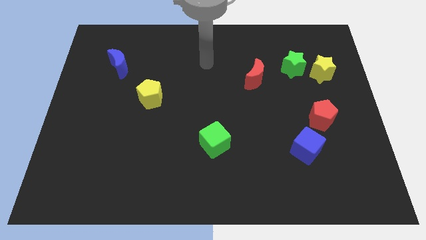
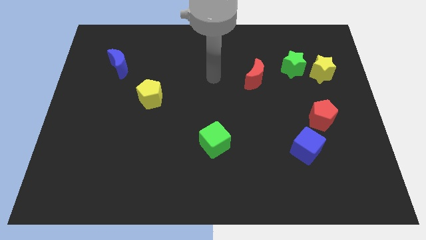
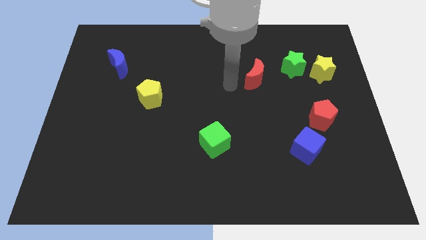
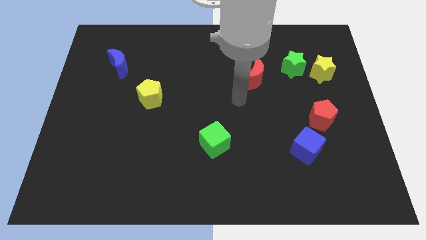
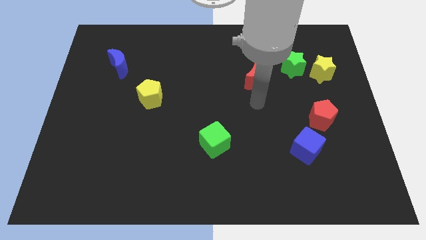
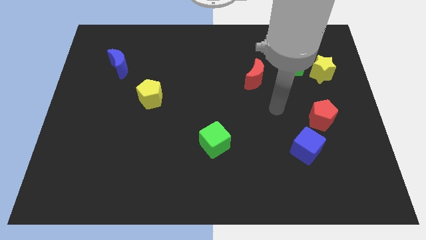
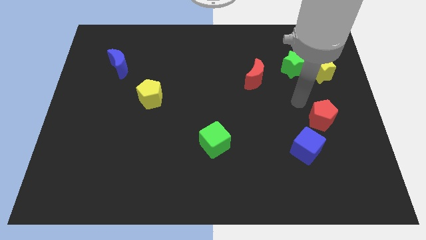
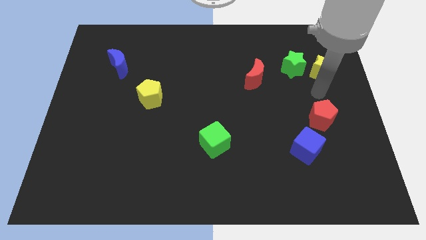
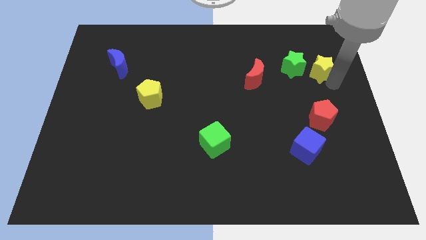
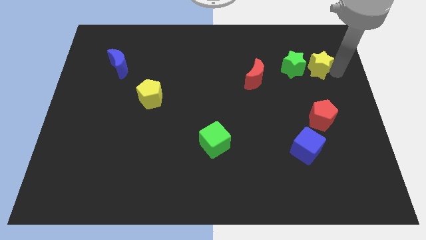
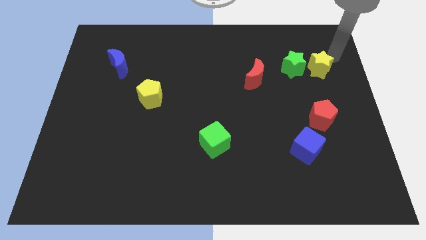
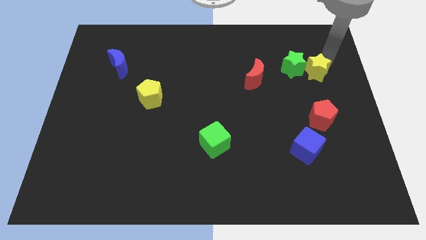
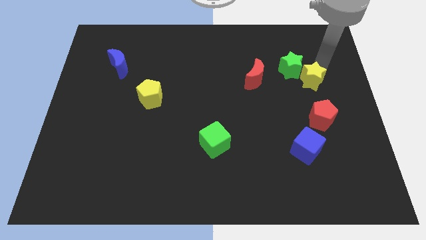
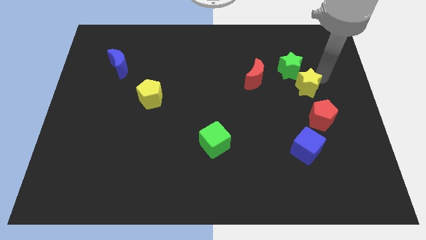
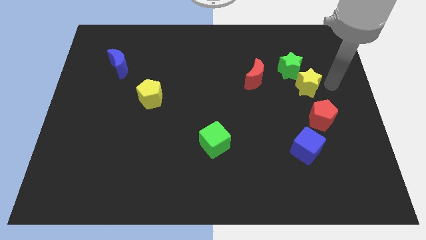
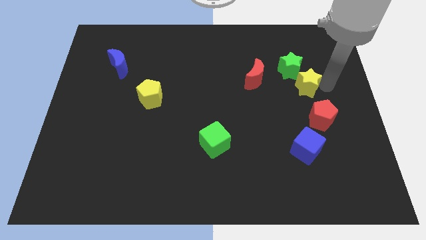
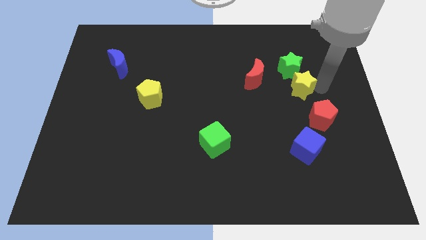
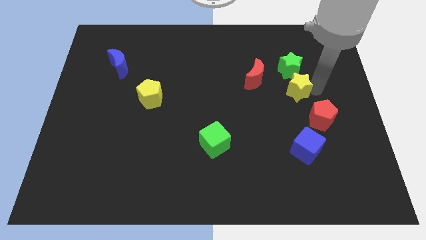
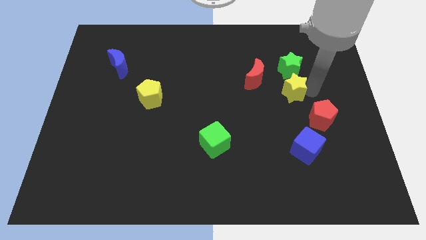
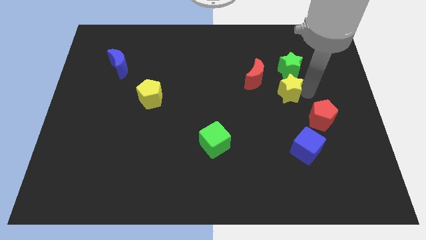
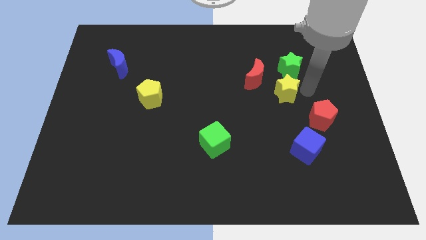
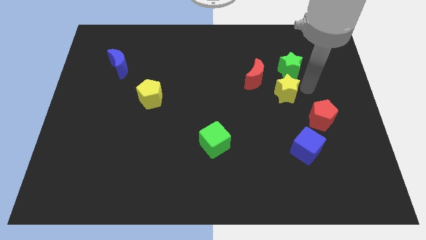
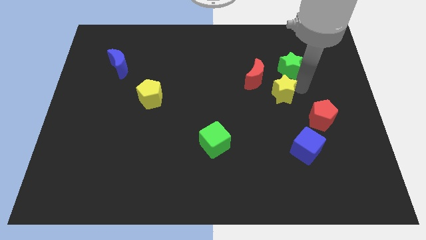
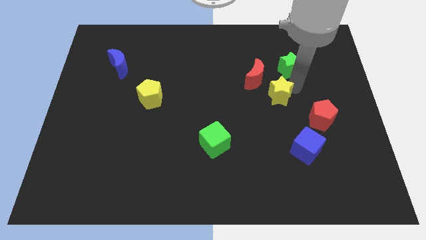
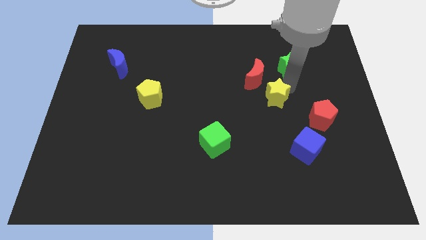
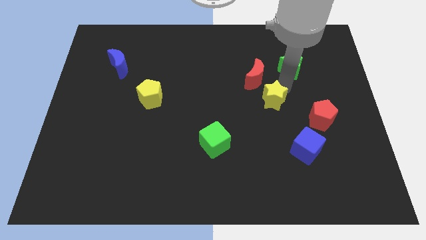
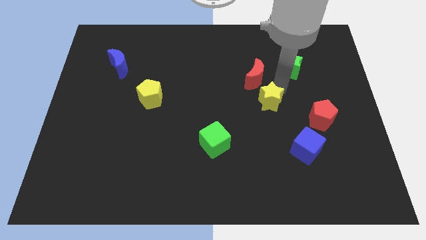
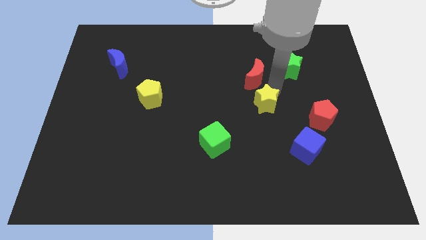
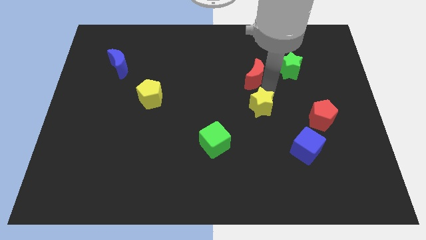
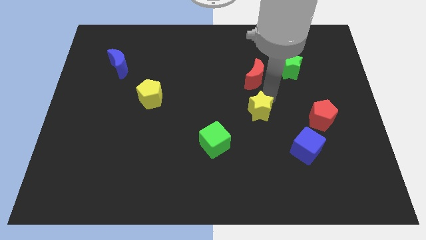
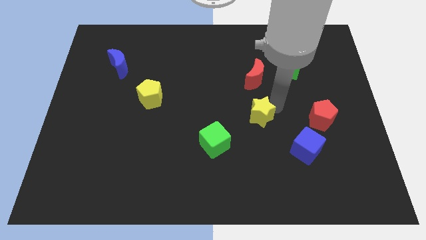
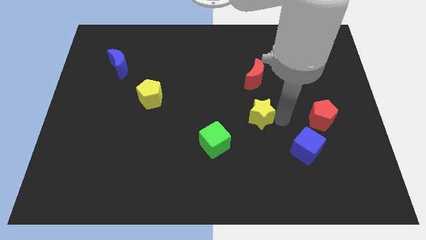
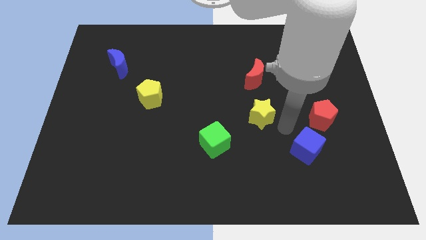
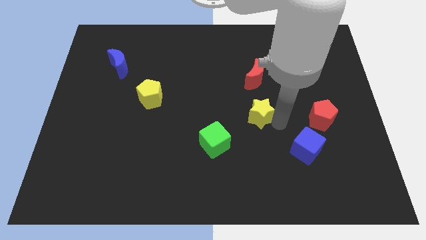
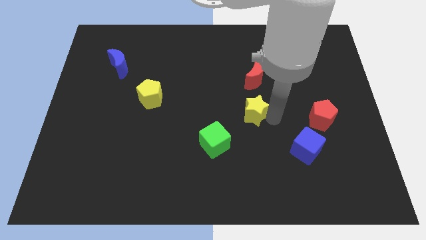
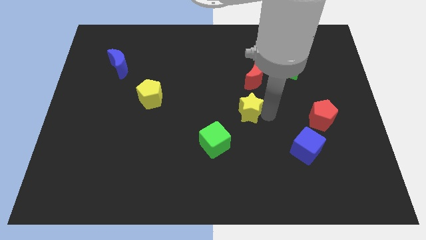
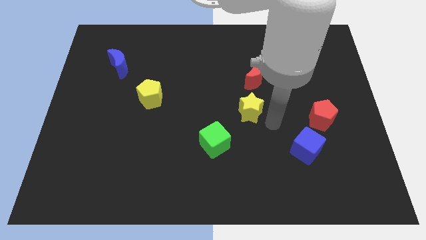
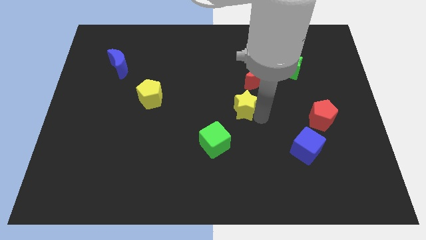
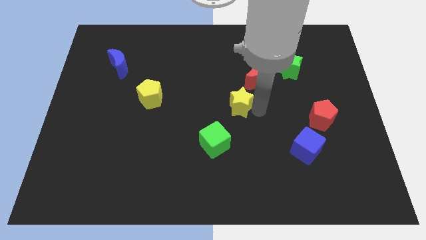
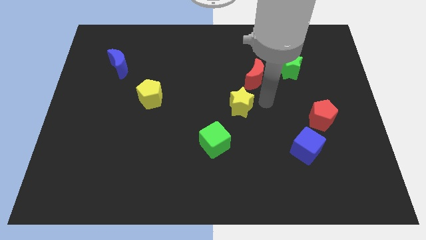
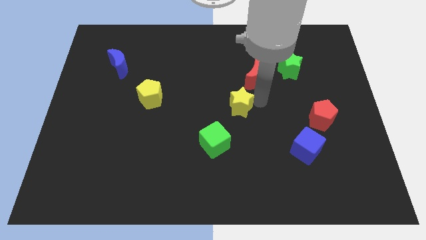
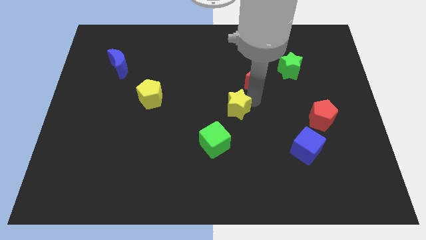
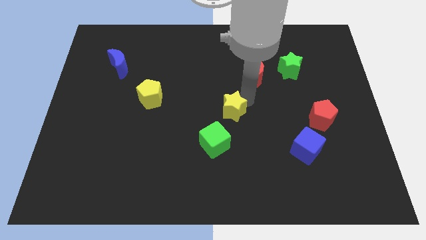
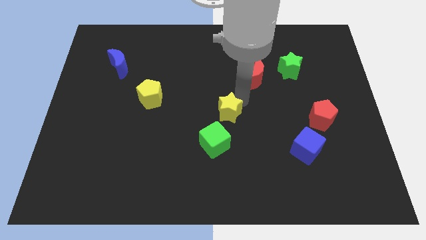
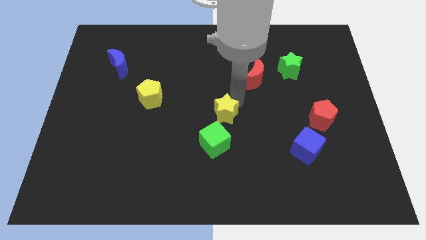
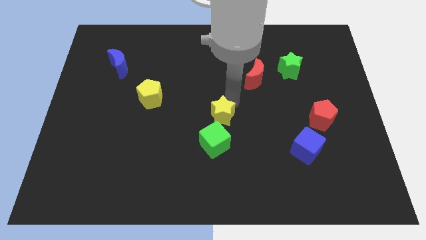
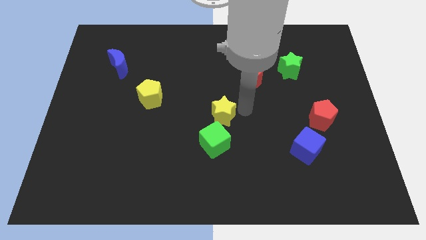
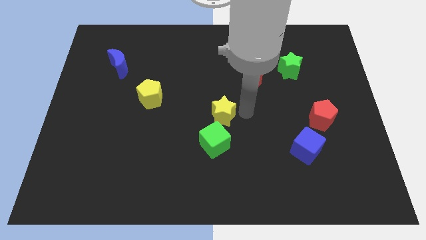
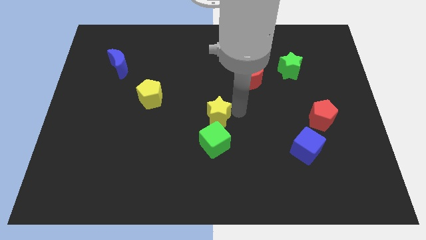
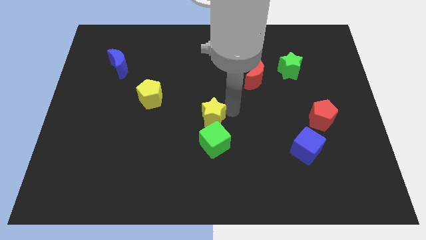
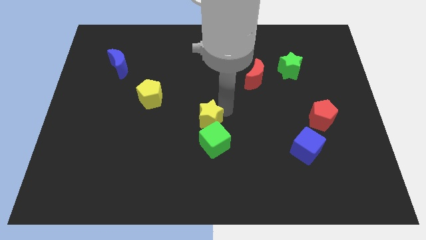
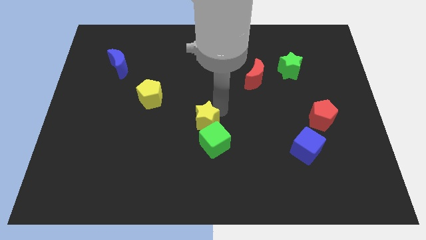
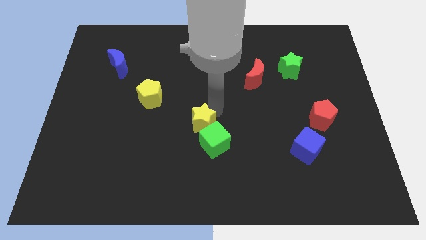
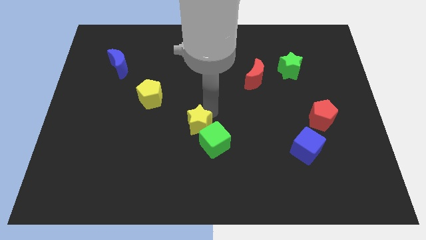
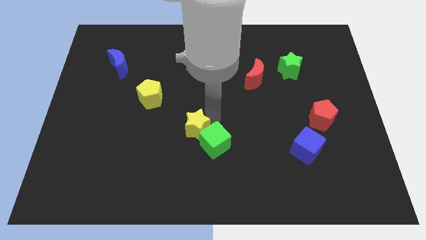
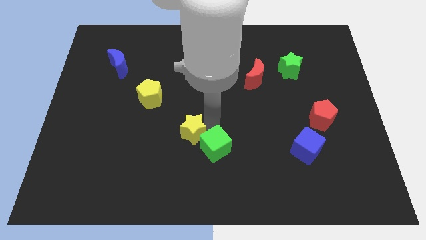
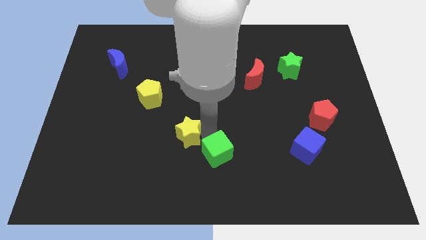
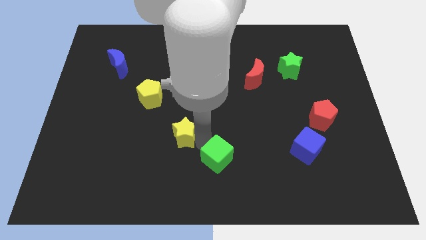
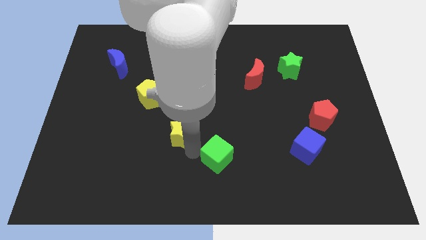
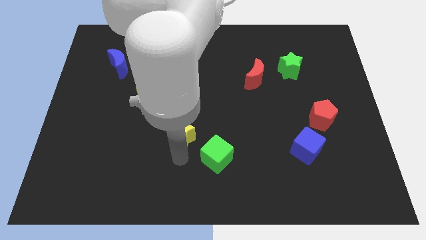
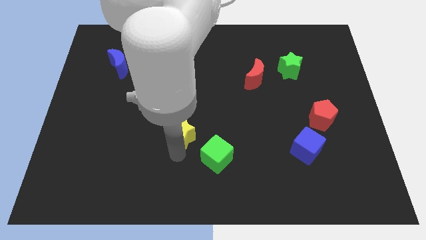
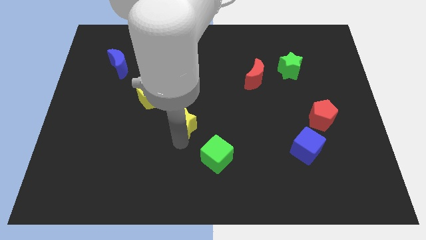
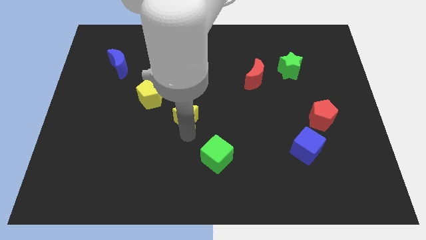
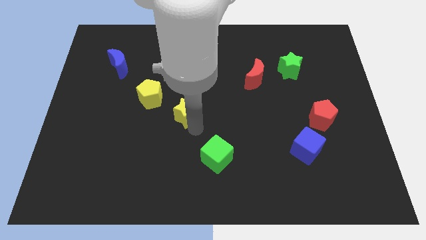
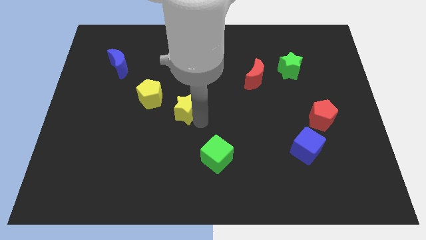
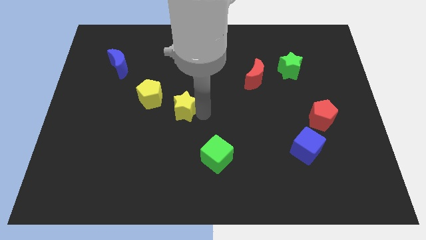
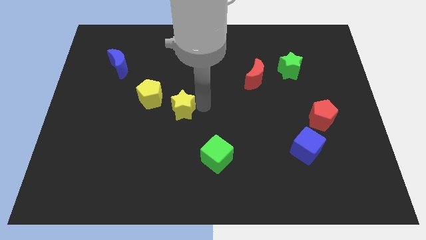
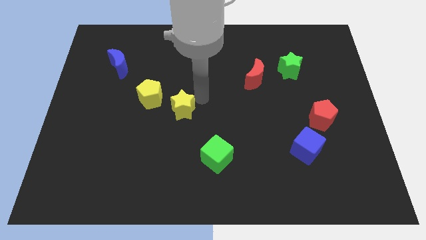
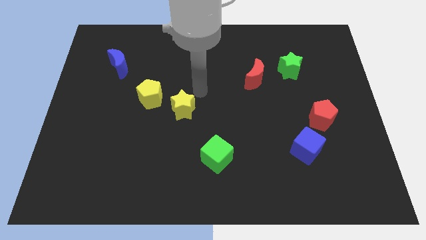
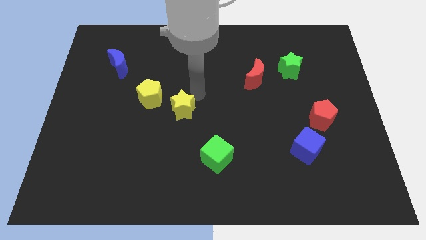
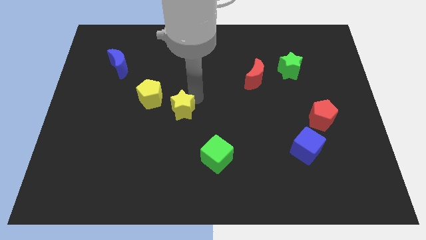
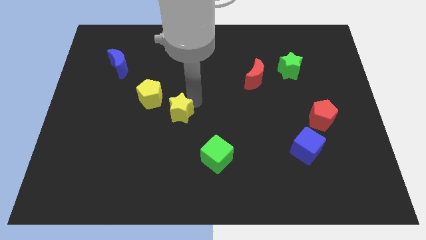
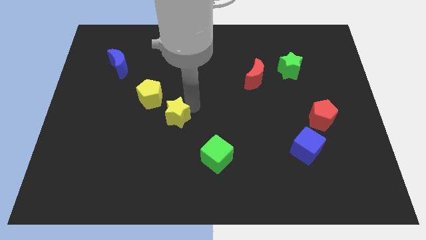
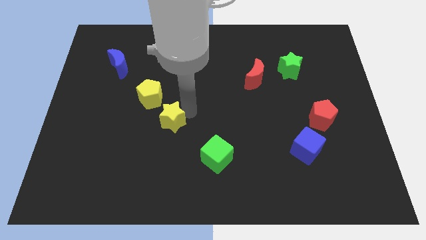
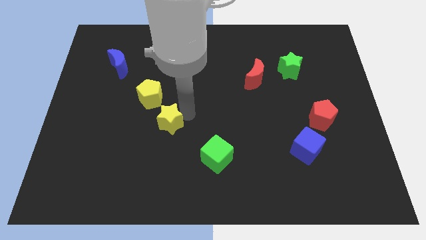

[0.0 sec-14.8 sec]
slide the yellow star to the bottom side of the yellow pentagon
